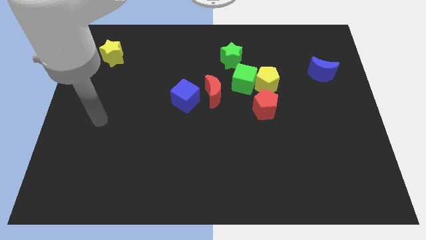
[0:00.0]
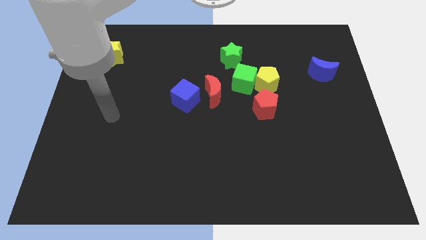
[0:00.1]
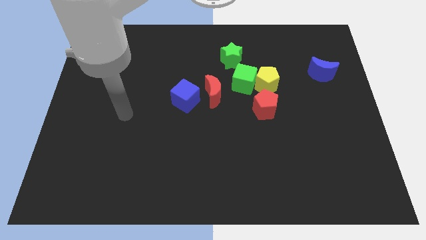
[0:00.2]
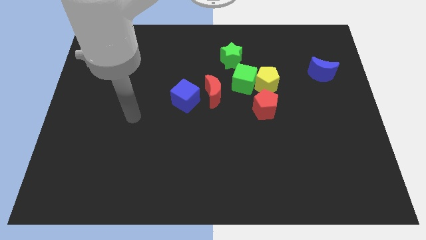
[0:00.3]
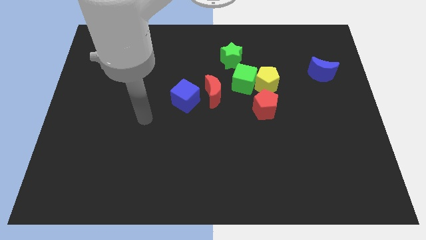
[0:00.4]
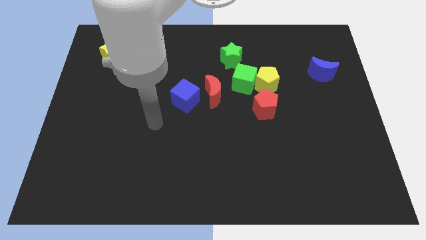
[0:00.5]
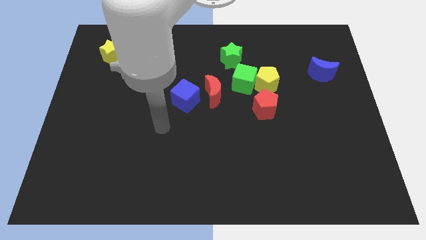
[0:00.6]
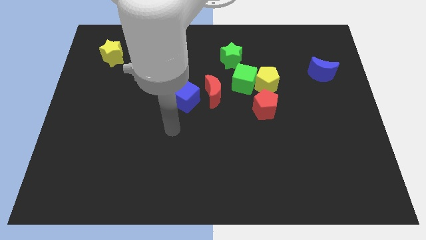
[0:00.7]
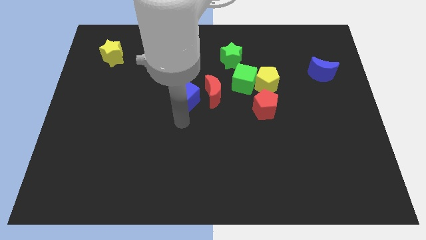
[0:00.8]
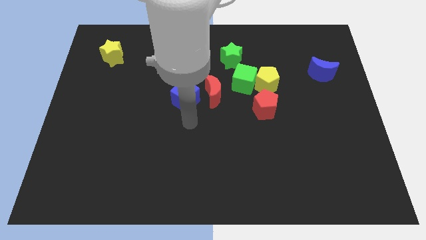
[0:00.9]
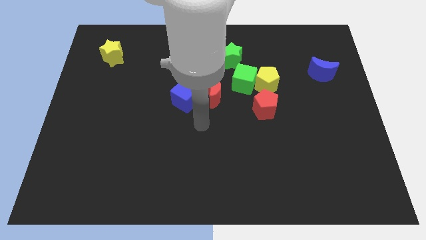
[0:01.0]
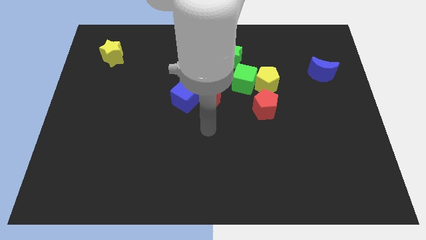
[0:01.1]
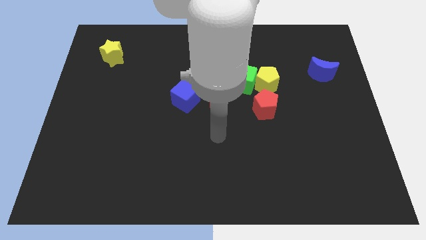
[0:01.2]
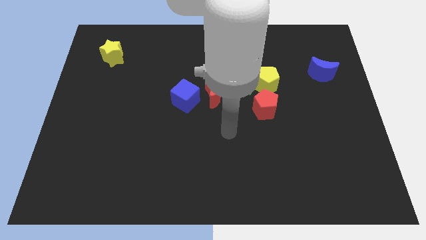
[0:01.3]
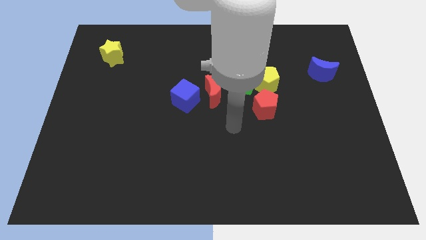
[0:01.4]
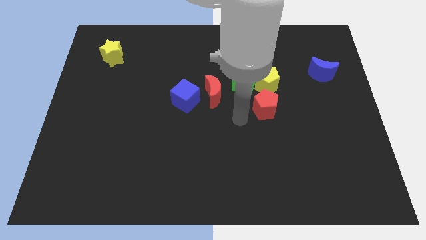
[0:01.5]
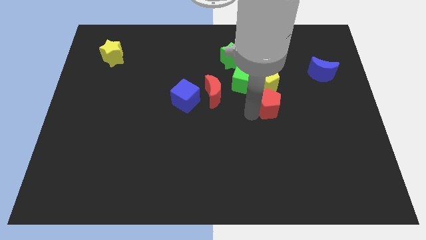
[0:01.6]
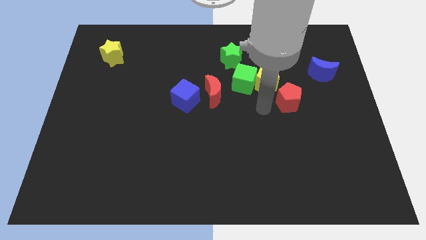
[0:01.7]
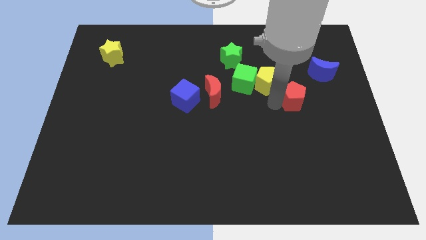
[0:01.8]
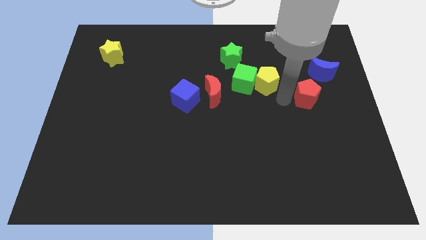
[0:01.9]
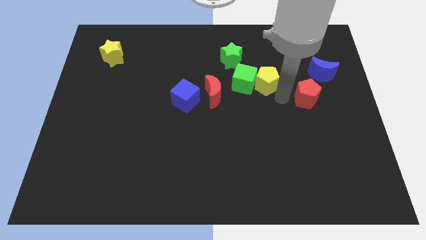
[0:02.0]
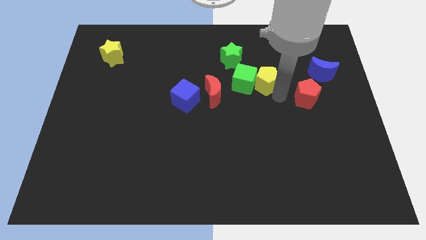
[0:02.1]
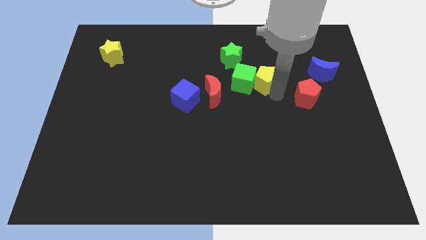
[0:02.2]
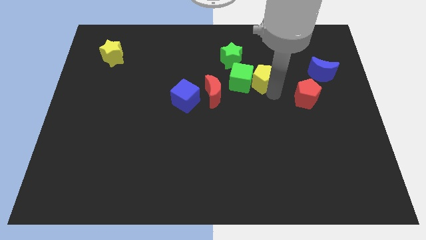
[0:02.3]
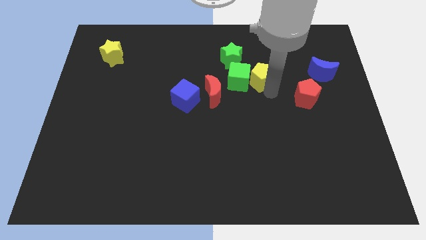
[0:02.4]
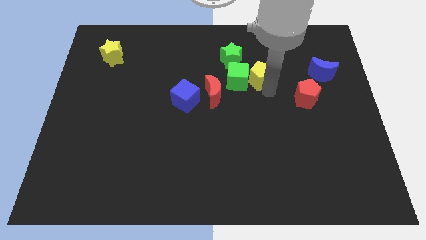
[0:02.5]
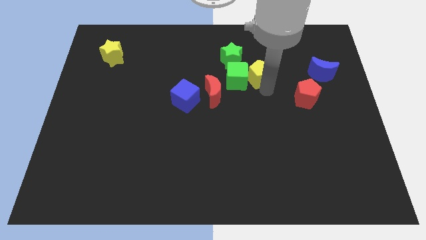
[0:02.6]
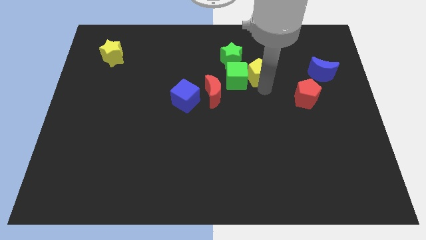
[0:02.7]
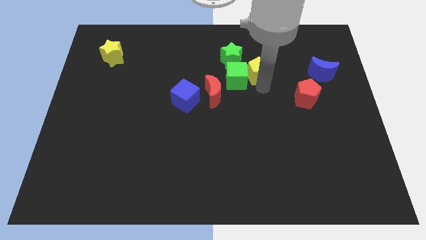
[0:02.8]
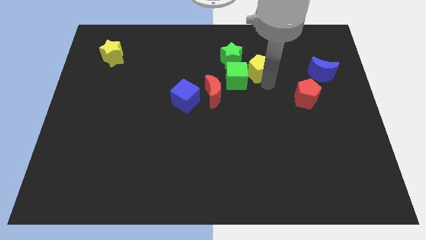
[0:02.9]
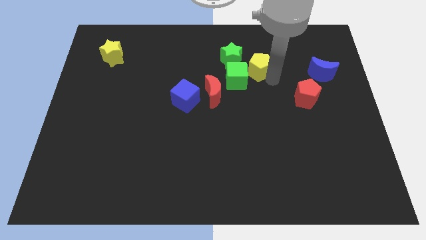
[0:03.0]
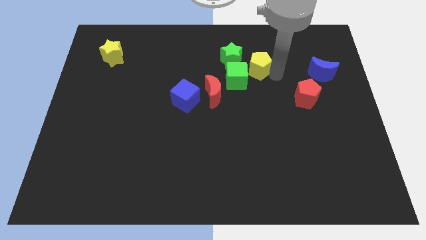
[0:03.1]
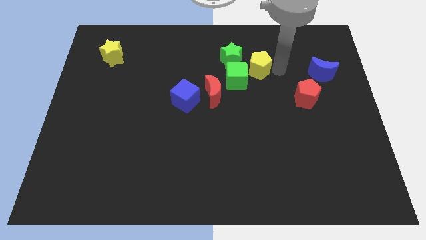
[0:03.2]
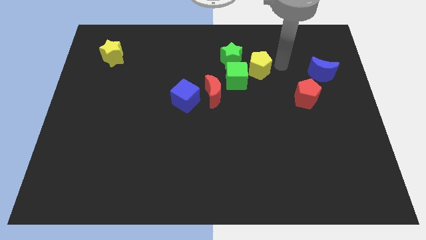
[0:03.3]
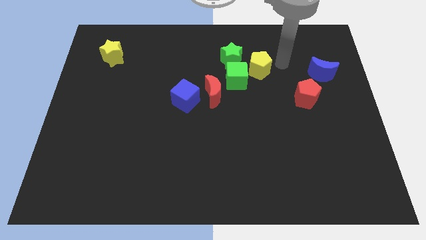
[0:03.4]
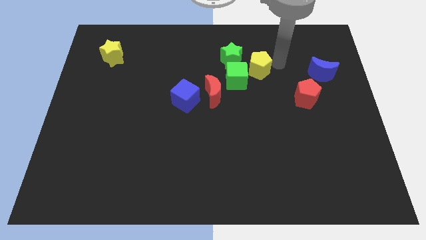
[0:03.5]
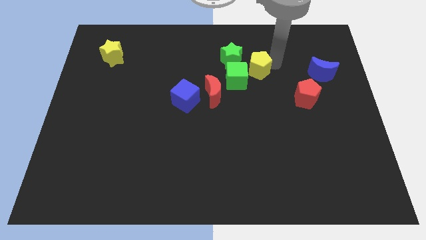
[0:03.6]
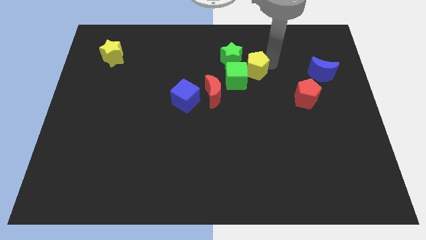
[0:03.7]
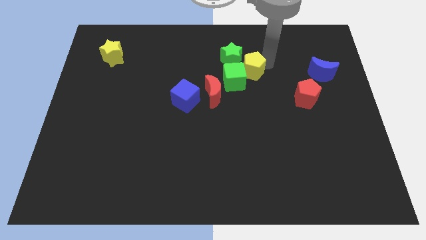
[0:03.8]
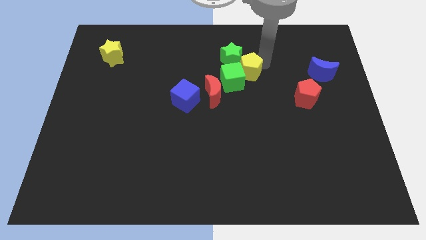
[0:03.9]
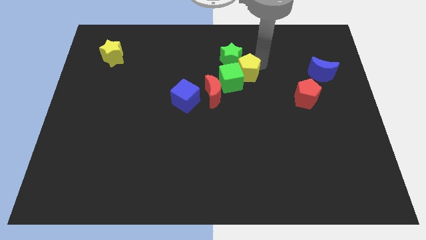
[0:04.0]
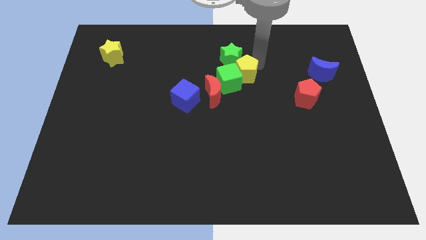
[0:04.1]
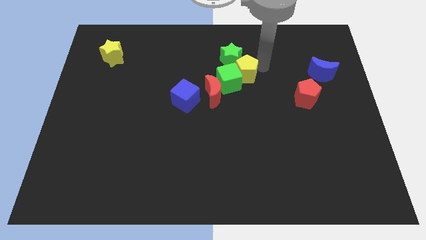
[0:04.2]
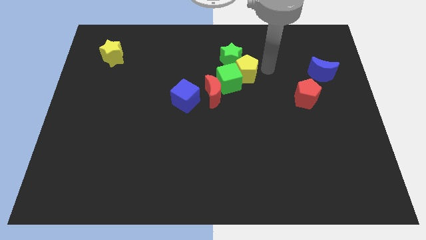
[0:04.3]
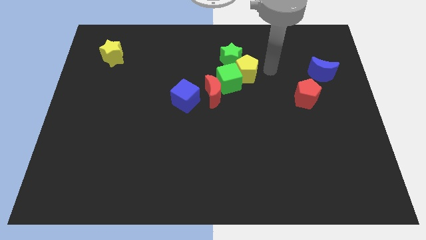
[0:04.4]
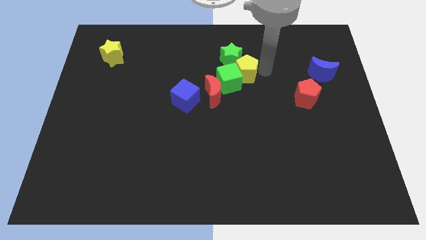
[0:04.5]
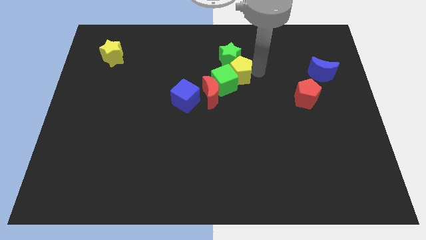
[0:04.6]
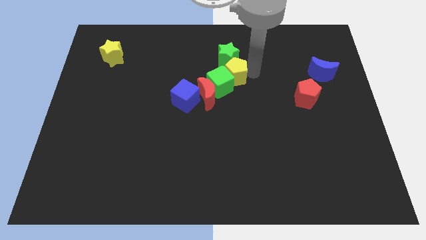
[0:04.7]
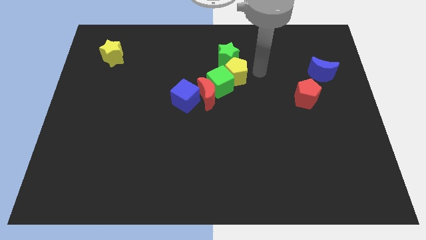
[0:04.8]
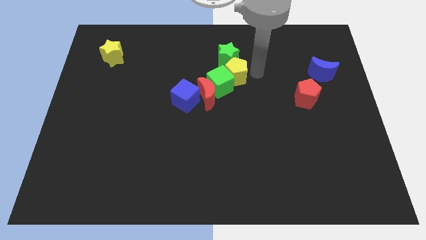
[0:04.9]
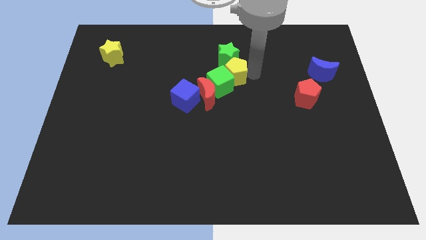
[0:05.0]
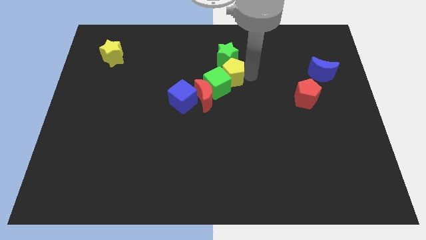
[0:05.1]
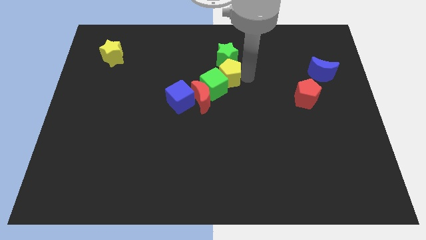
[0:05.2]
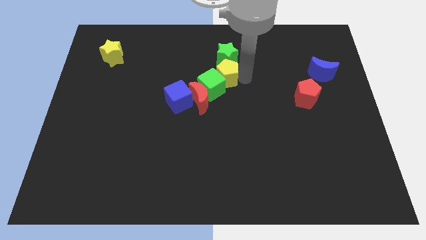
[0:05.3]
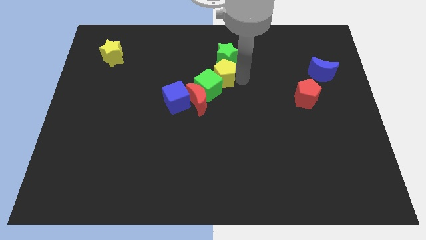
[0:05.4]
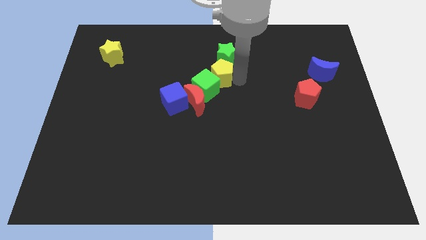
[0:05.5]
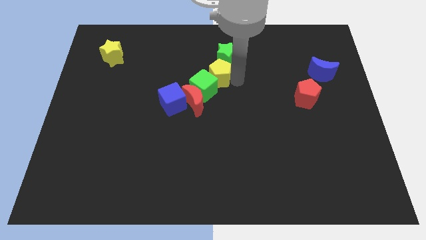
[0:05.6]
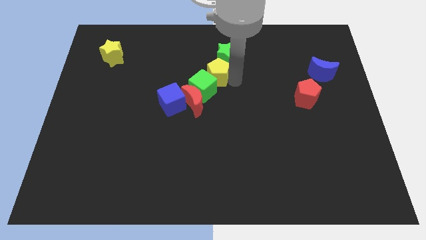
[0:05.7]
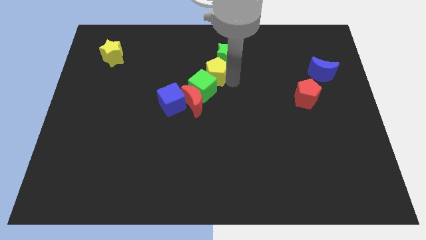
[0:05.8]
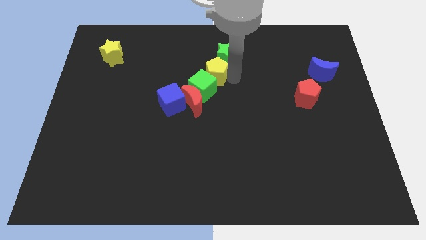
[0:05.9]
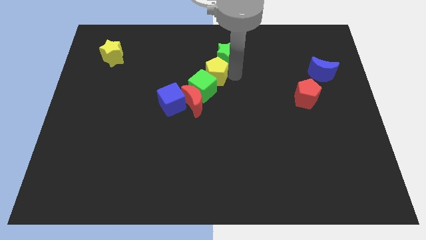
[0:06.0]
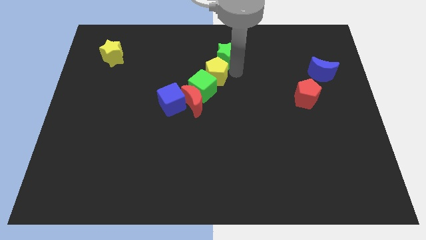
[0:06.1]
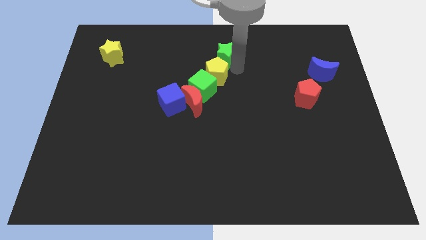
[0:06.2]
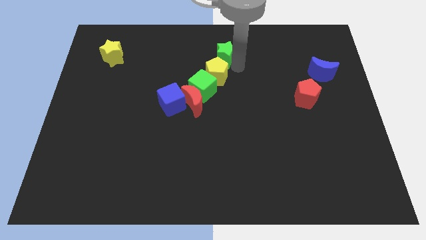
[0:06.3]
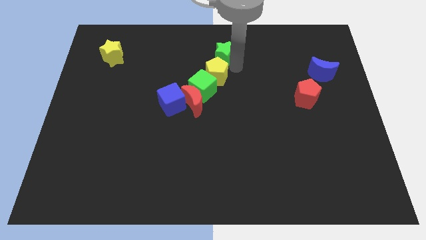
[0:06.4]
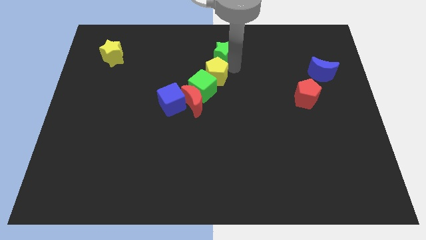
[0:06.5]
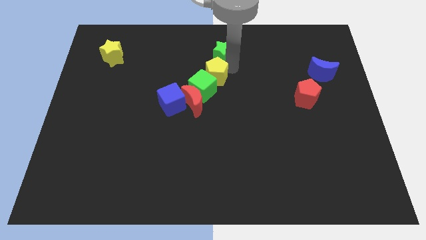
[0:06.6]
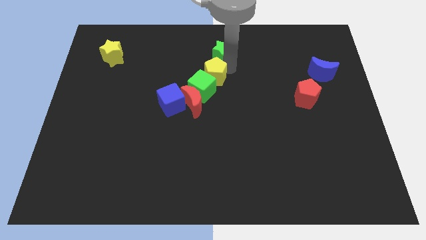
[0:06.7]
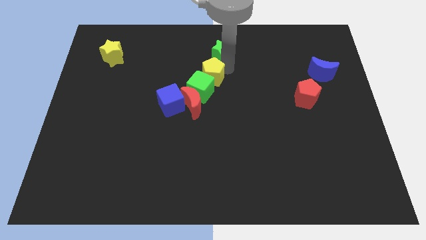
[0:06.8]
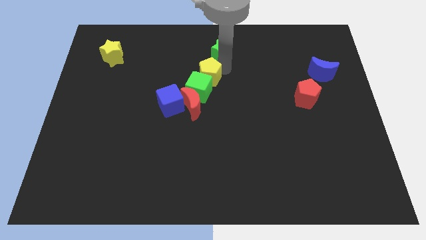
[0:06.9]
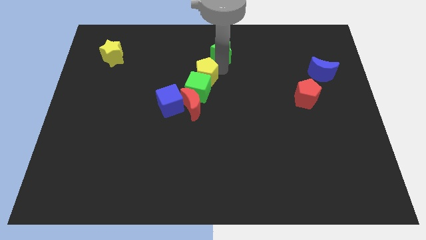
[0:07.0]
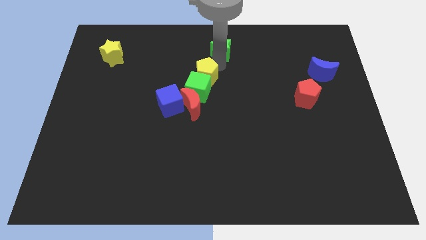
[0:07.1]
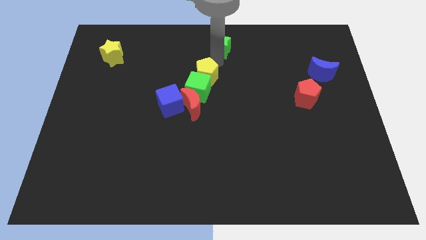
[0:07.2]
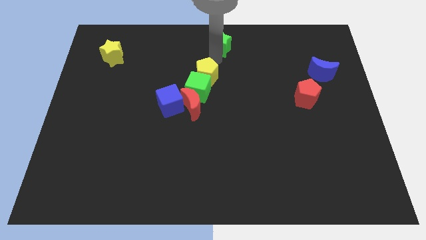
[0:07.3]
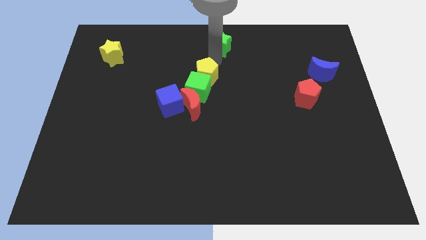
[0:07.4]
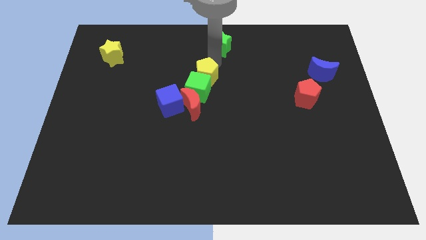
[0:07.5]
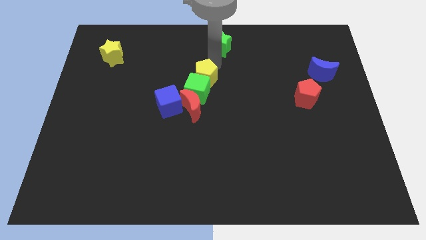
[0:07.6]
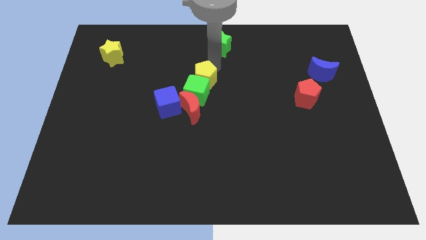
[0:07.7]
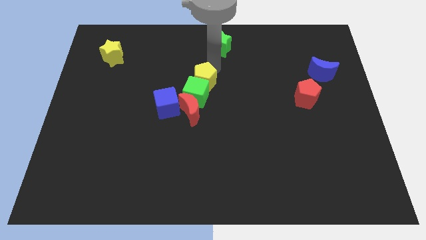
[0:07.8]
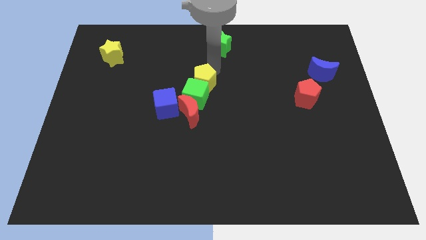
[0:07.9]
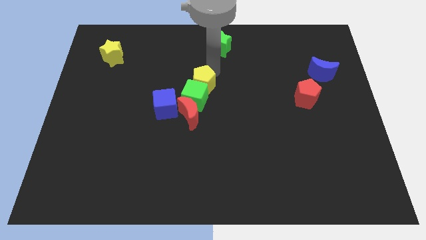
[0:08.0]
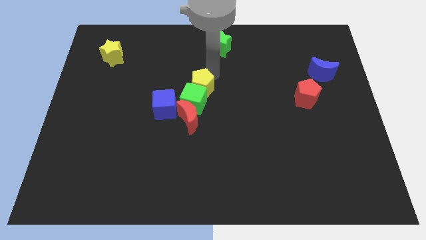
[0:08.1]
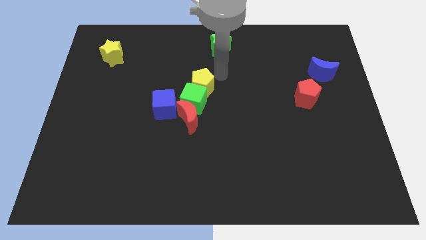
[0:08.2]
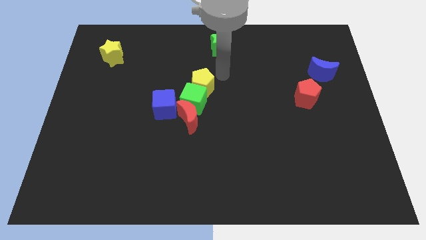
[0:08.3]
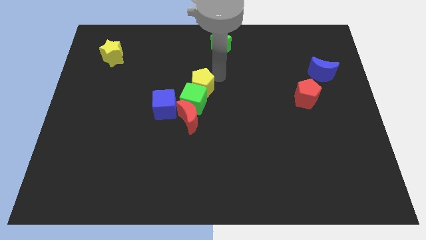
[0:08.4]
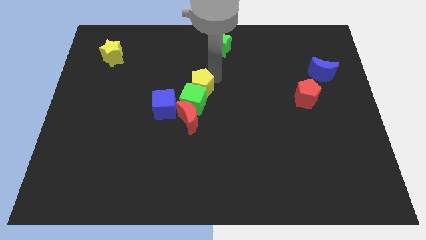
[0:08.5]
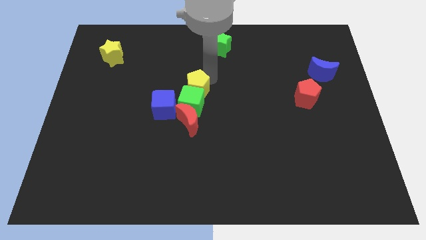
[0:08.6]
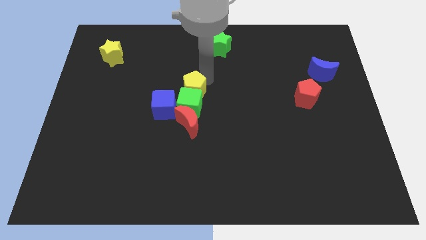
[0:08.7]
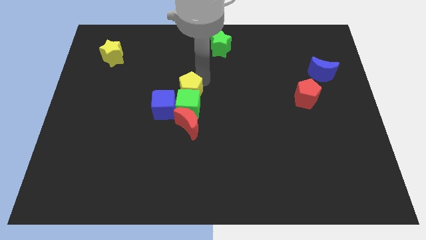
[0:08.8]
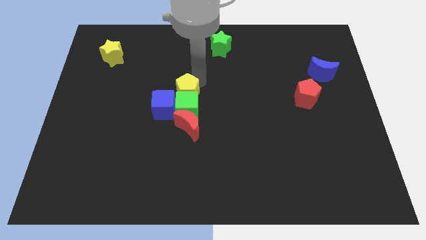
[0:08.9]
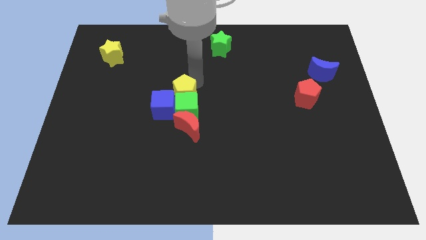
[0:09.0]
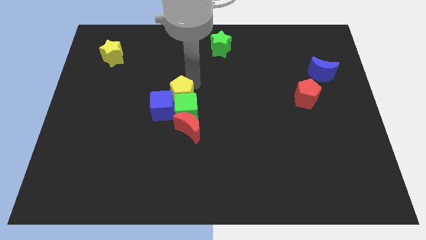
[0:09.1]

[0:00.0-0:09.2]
push the yellow pentagon to the blue cube
